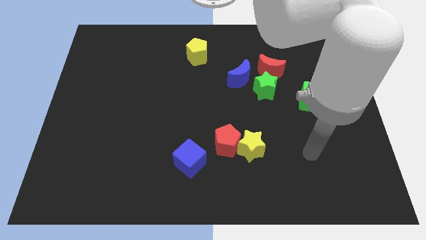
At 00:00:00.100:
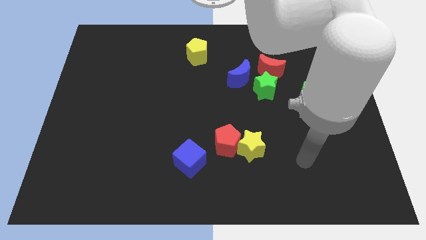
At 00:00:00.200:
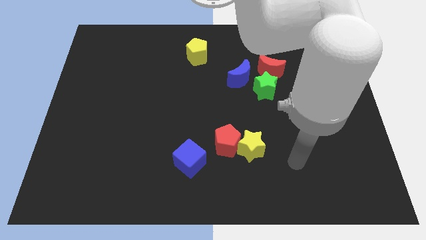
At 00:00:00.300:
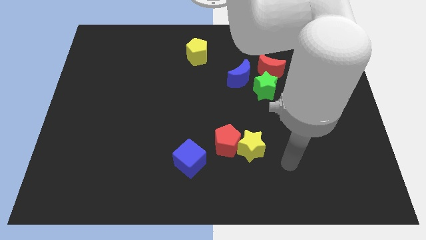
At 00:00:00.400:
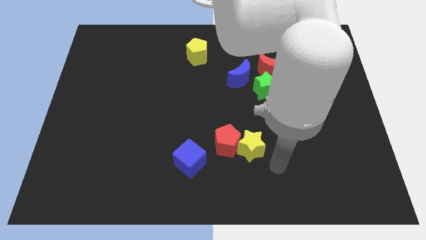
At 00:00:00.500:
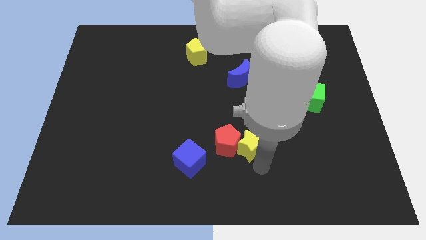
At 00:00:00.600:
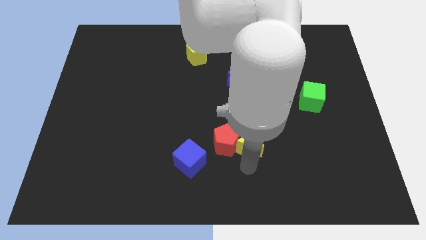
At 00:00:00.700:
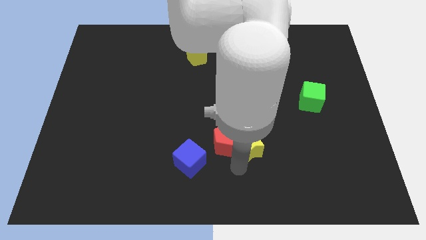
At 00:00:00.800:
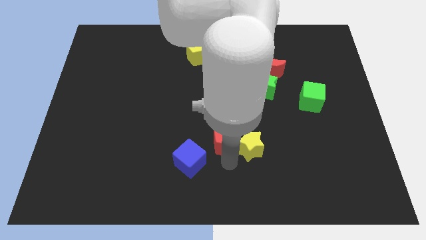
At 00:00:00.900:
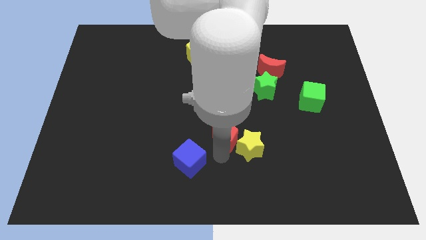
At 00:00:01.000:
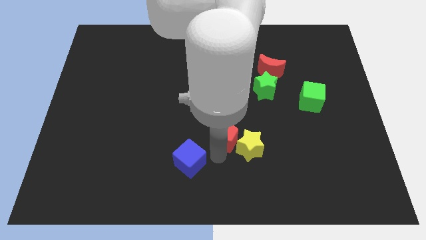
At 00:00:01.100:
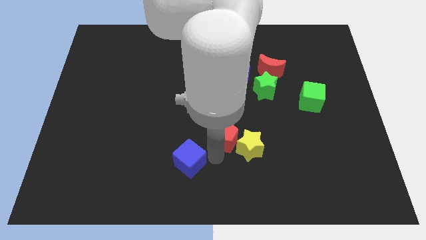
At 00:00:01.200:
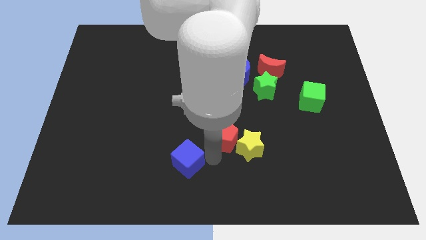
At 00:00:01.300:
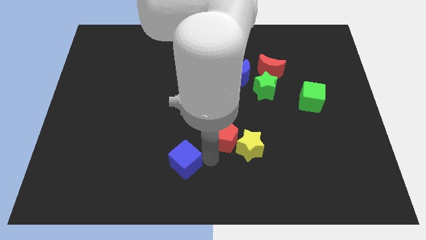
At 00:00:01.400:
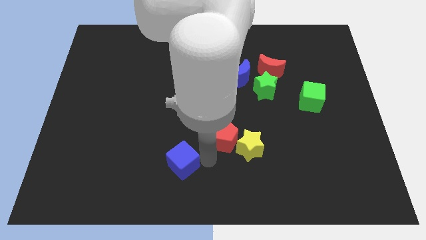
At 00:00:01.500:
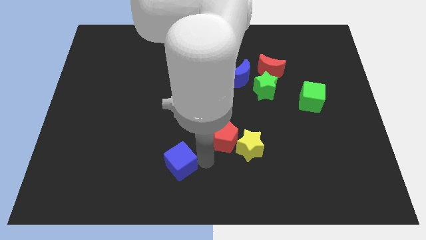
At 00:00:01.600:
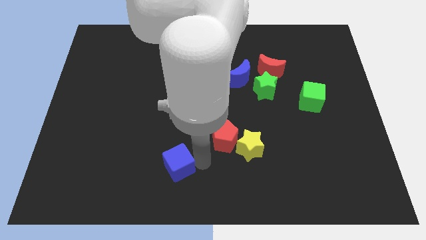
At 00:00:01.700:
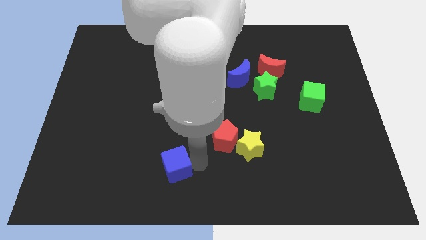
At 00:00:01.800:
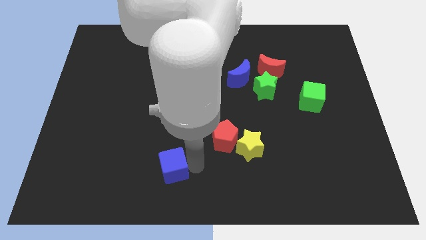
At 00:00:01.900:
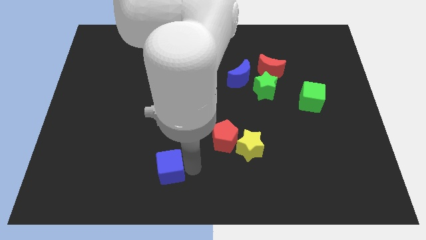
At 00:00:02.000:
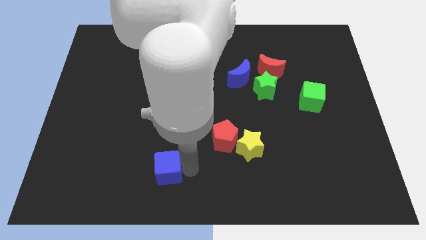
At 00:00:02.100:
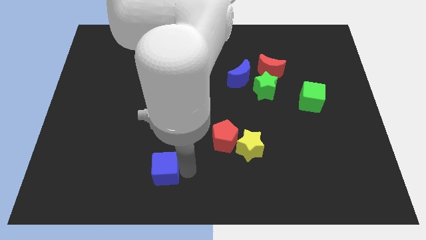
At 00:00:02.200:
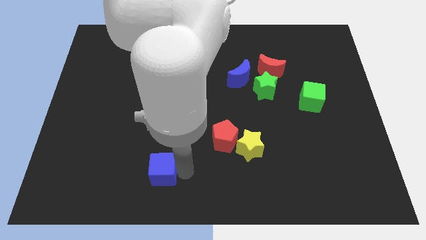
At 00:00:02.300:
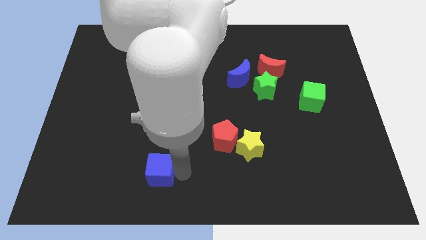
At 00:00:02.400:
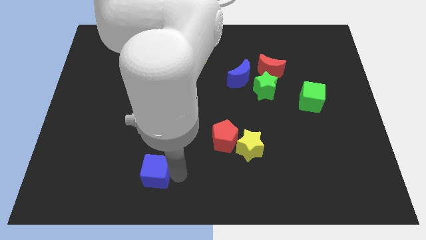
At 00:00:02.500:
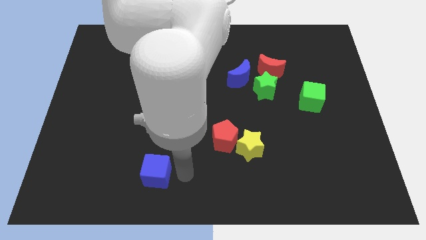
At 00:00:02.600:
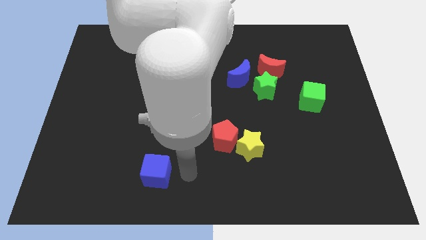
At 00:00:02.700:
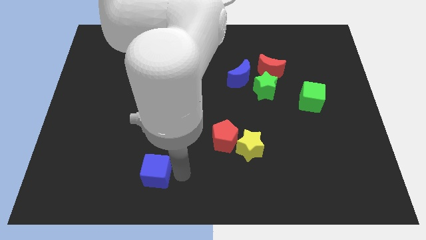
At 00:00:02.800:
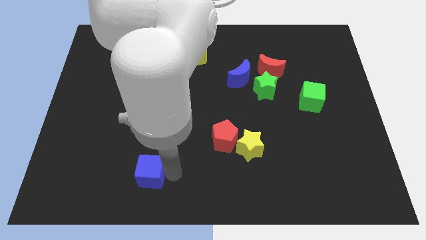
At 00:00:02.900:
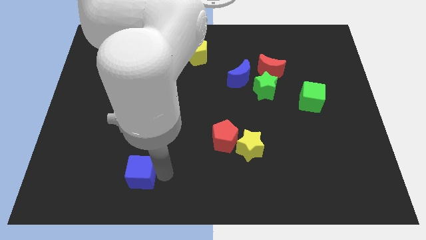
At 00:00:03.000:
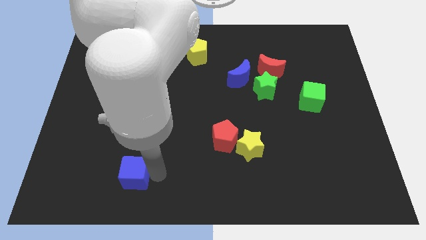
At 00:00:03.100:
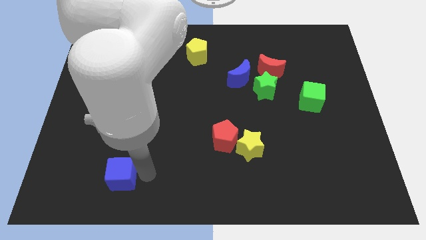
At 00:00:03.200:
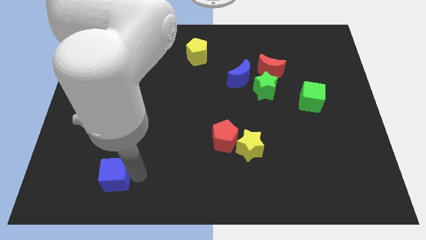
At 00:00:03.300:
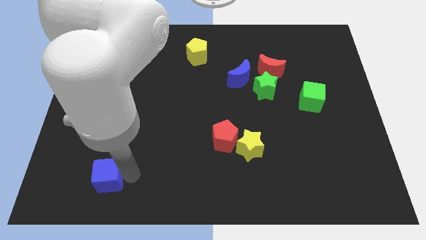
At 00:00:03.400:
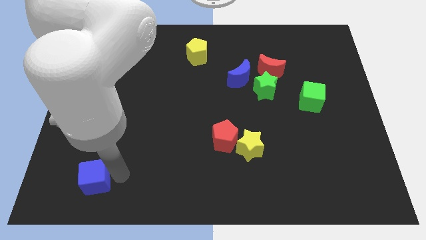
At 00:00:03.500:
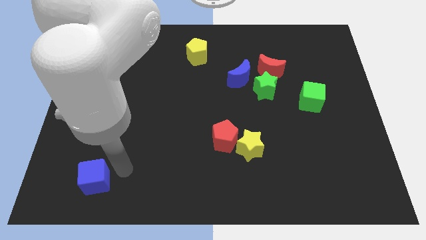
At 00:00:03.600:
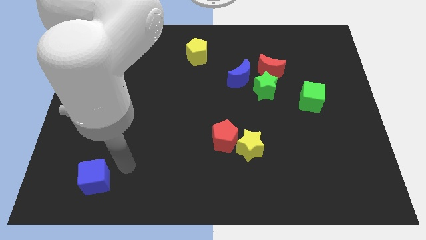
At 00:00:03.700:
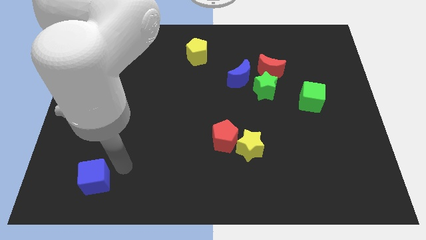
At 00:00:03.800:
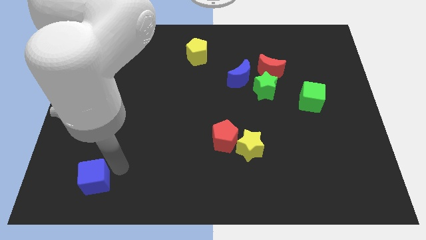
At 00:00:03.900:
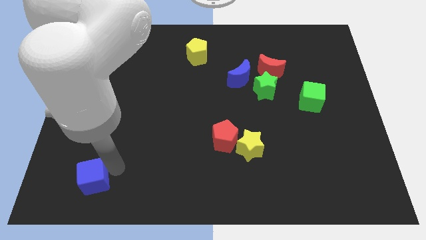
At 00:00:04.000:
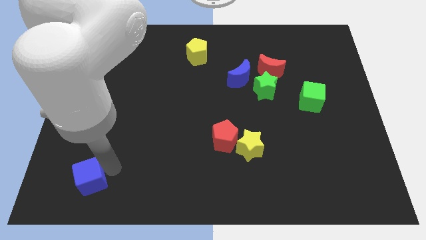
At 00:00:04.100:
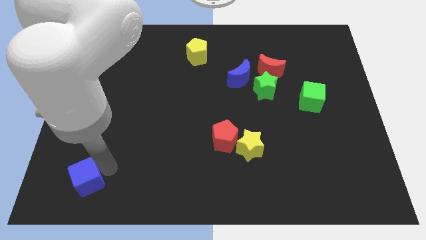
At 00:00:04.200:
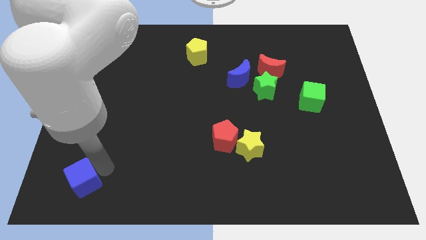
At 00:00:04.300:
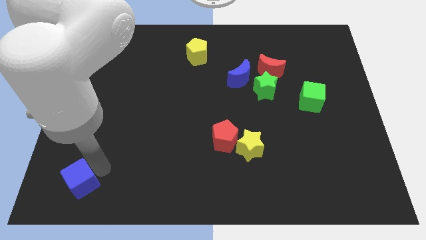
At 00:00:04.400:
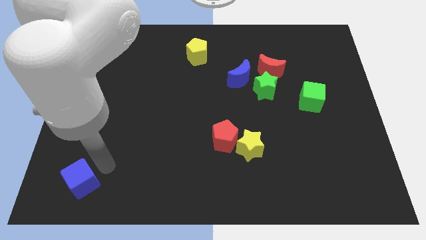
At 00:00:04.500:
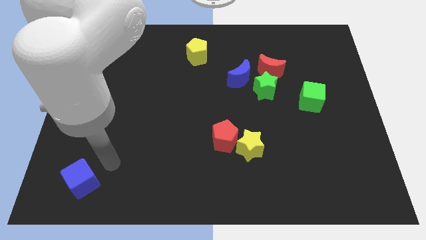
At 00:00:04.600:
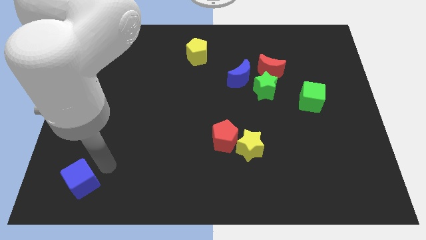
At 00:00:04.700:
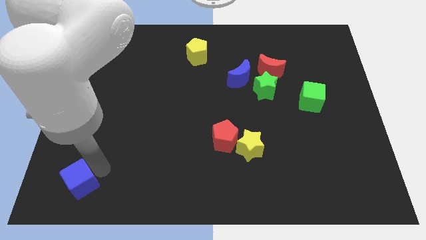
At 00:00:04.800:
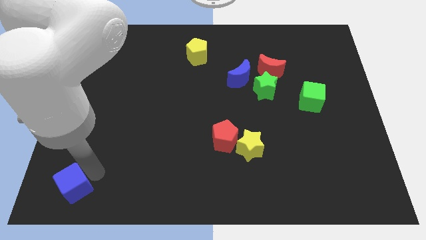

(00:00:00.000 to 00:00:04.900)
put the blue cube to the bottom left

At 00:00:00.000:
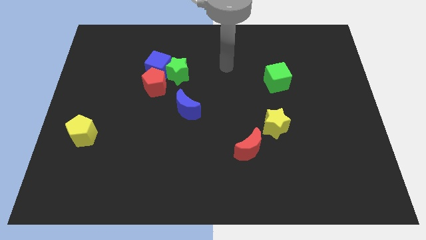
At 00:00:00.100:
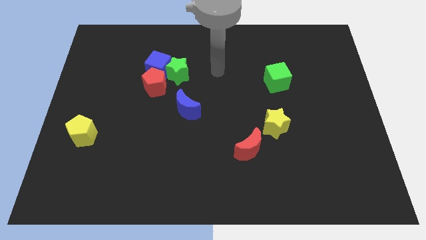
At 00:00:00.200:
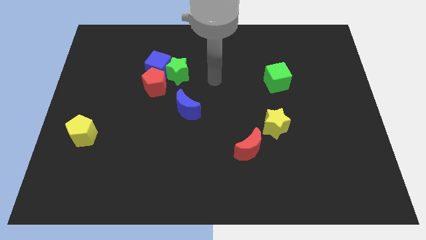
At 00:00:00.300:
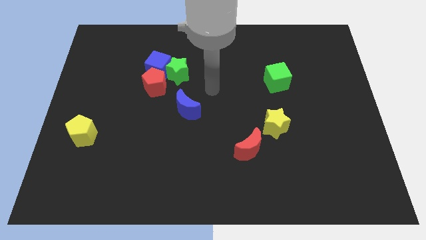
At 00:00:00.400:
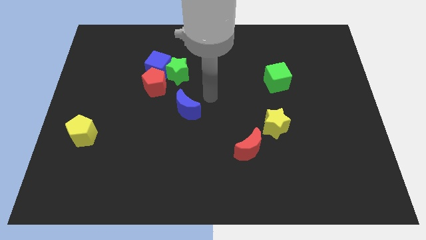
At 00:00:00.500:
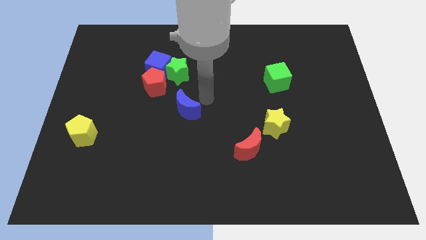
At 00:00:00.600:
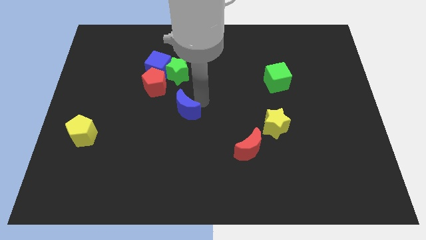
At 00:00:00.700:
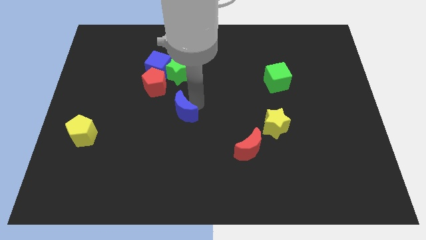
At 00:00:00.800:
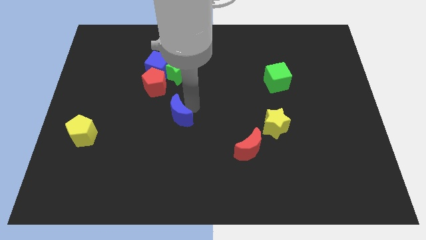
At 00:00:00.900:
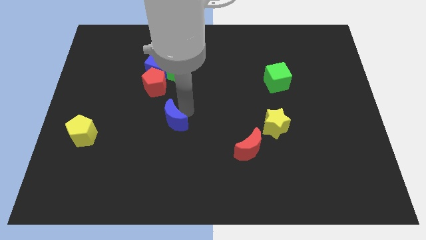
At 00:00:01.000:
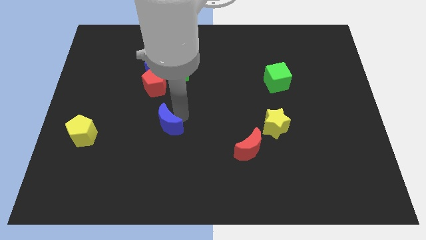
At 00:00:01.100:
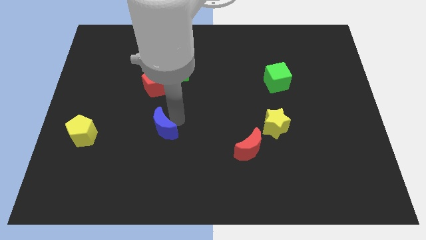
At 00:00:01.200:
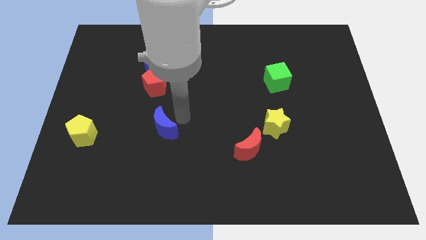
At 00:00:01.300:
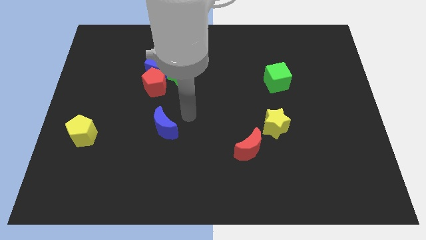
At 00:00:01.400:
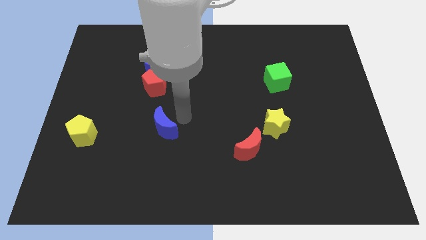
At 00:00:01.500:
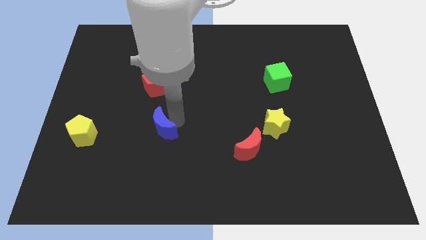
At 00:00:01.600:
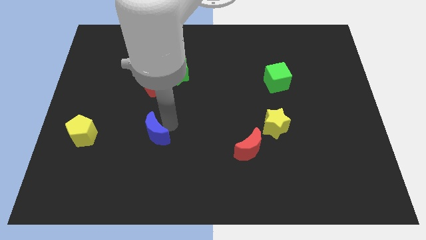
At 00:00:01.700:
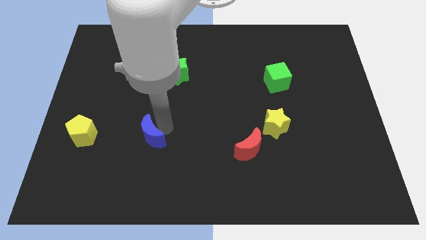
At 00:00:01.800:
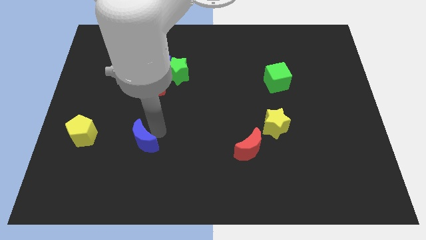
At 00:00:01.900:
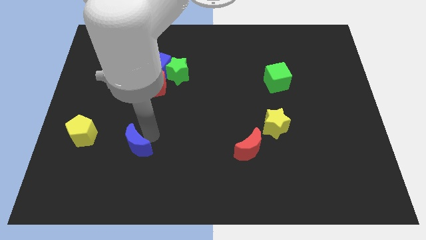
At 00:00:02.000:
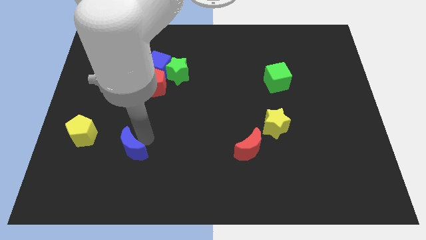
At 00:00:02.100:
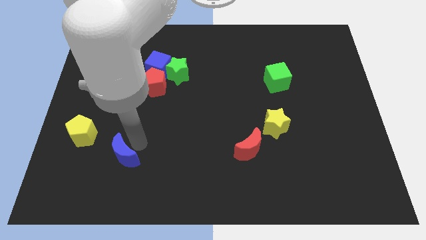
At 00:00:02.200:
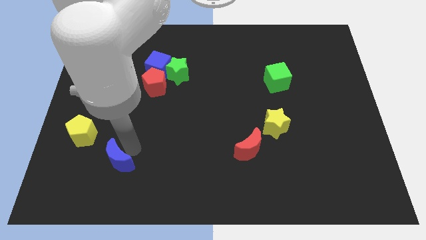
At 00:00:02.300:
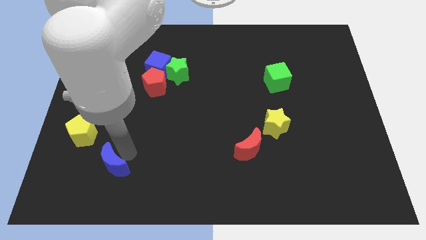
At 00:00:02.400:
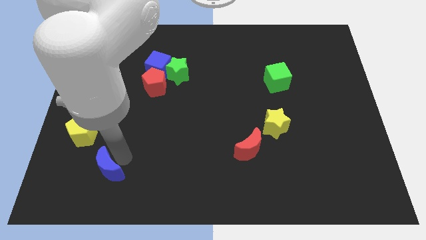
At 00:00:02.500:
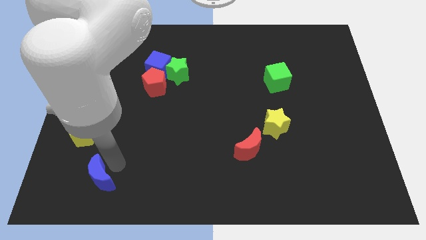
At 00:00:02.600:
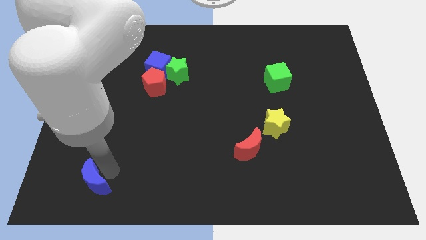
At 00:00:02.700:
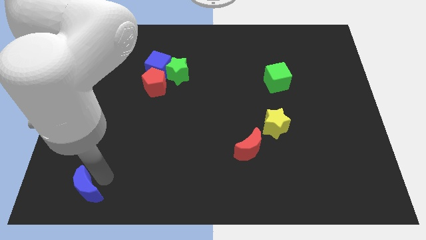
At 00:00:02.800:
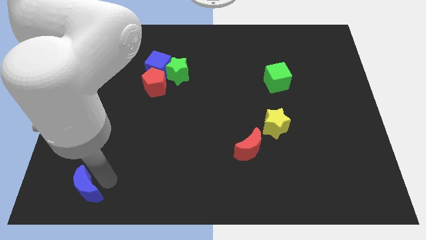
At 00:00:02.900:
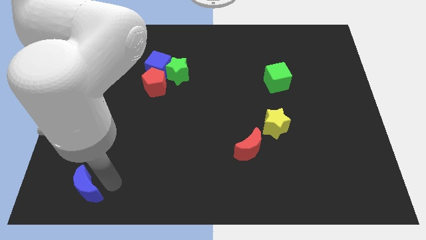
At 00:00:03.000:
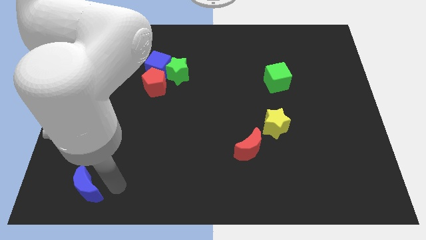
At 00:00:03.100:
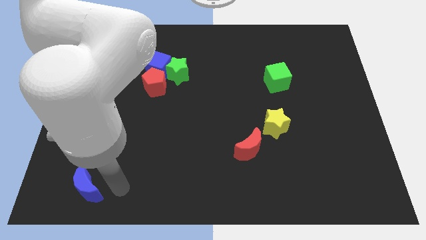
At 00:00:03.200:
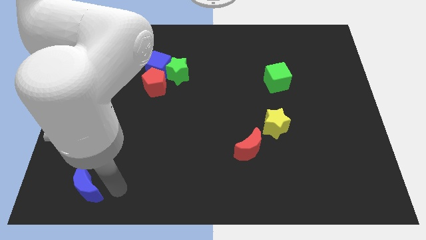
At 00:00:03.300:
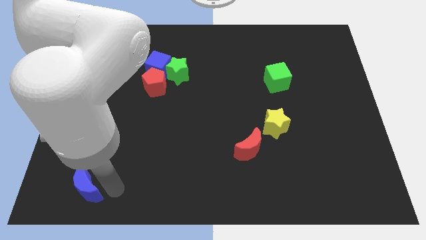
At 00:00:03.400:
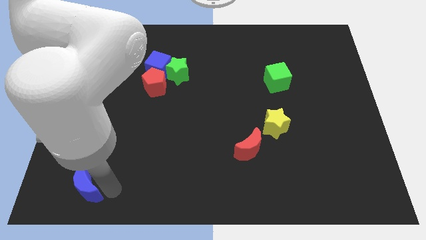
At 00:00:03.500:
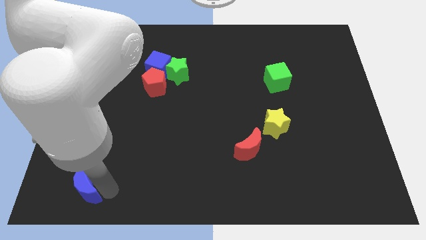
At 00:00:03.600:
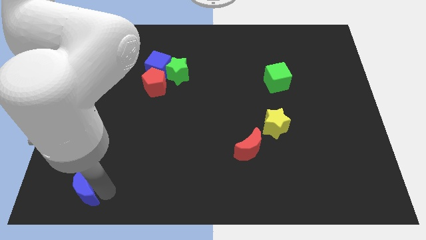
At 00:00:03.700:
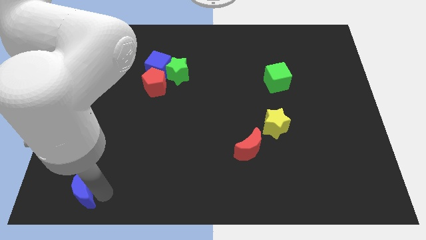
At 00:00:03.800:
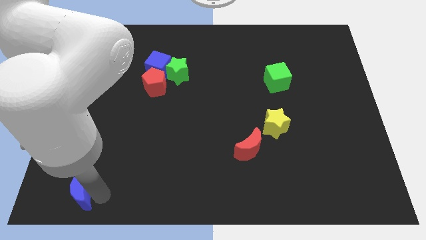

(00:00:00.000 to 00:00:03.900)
push the blue moon to the lower left corner
